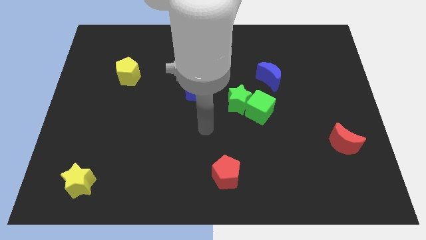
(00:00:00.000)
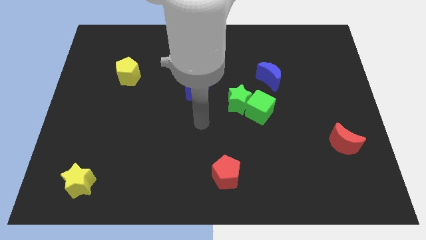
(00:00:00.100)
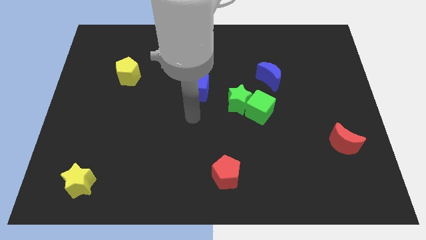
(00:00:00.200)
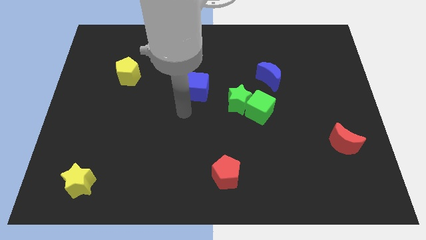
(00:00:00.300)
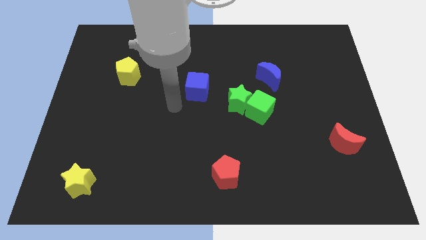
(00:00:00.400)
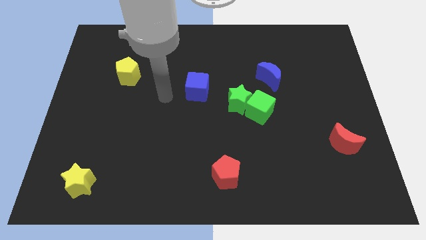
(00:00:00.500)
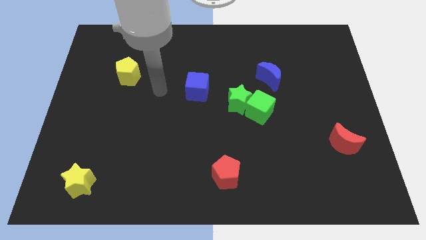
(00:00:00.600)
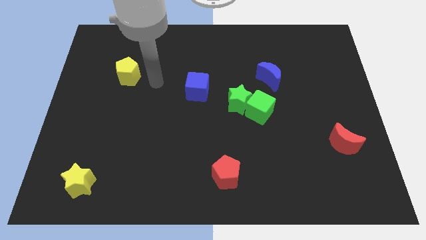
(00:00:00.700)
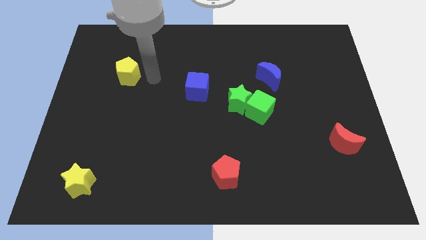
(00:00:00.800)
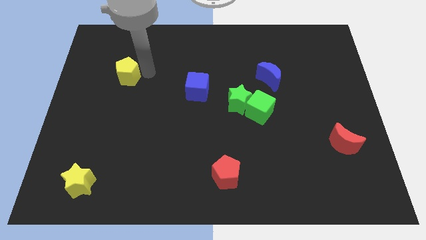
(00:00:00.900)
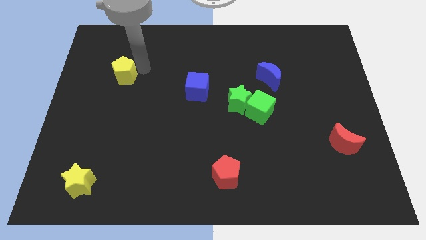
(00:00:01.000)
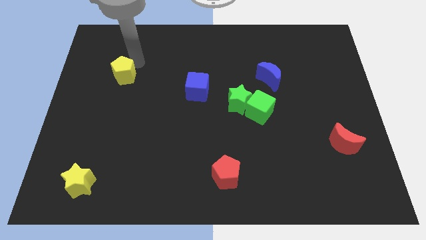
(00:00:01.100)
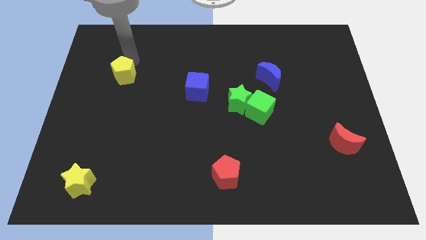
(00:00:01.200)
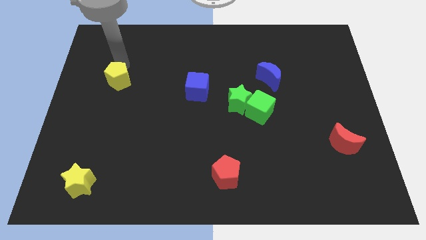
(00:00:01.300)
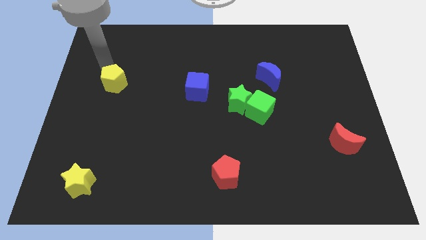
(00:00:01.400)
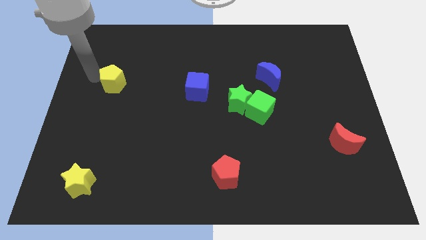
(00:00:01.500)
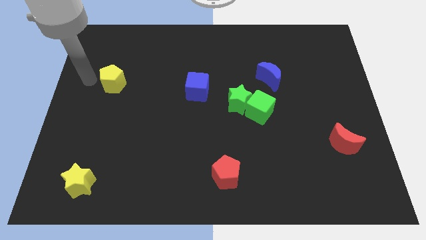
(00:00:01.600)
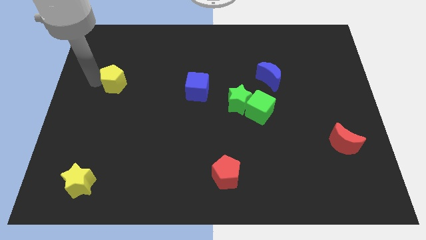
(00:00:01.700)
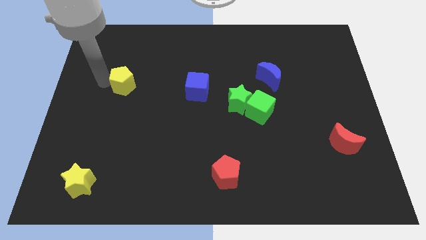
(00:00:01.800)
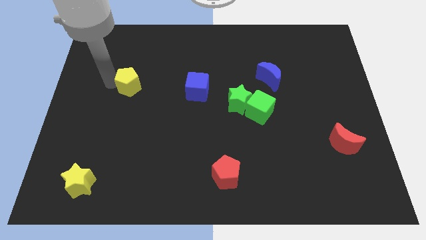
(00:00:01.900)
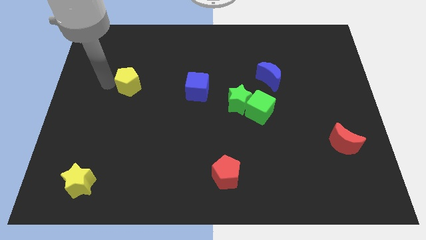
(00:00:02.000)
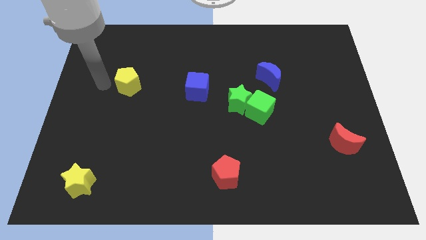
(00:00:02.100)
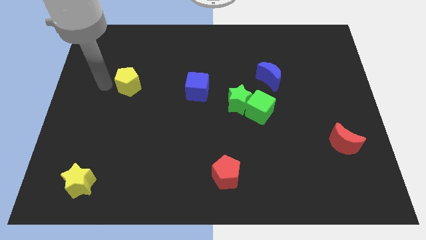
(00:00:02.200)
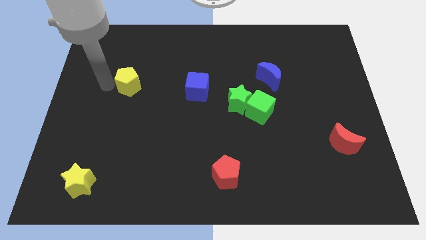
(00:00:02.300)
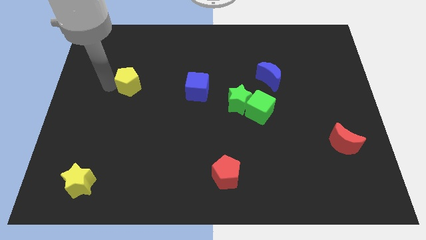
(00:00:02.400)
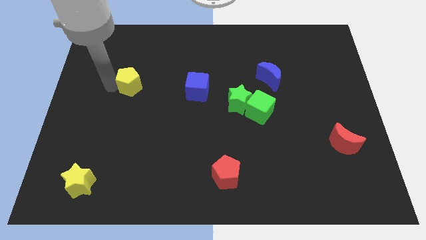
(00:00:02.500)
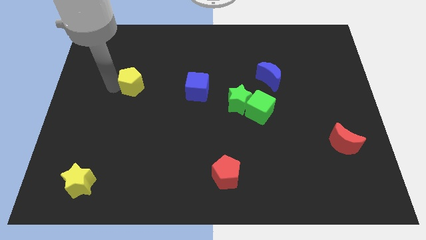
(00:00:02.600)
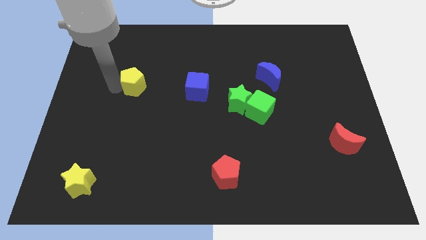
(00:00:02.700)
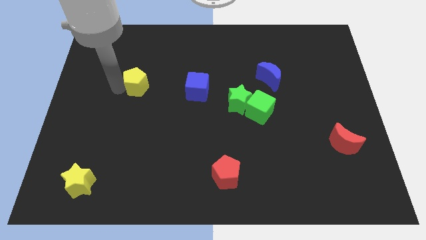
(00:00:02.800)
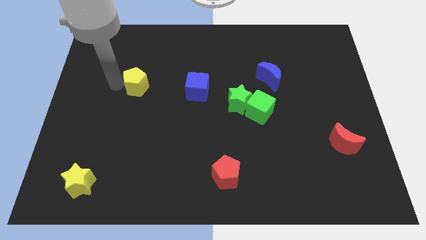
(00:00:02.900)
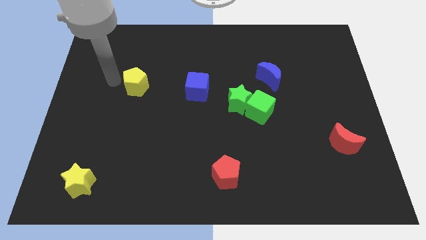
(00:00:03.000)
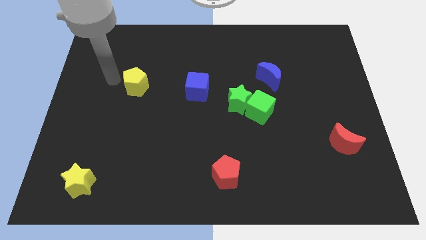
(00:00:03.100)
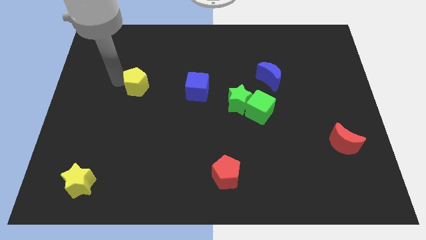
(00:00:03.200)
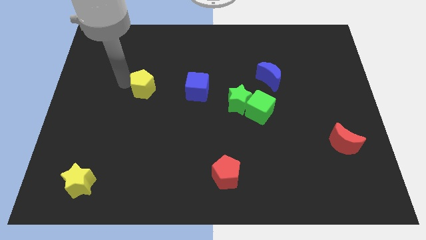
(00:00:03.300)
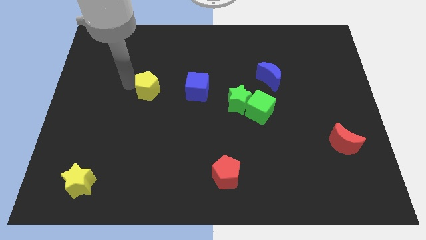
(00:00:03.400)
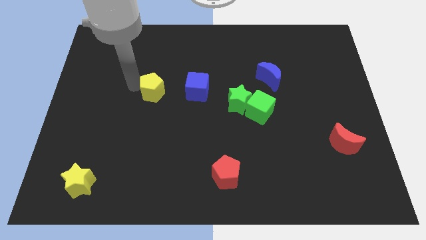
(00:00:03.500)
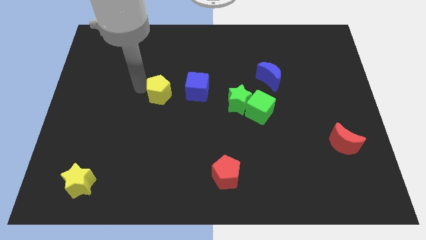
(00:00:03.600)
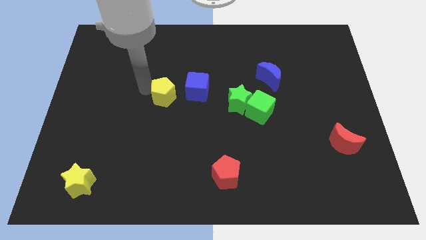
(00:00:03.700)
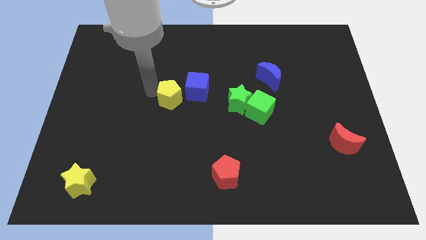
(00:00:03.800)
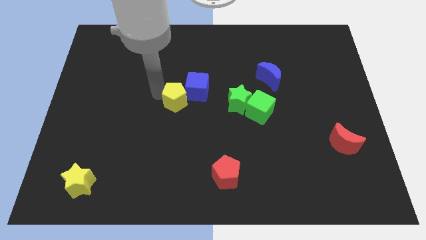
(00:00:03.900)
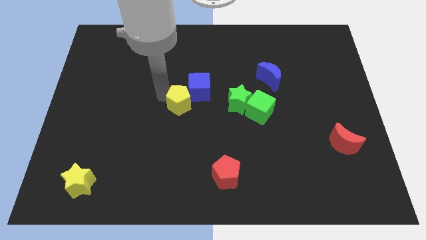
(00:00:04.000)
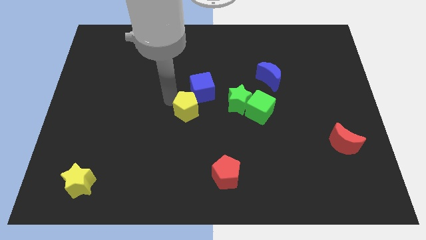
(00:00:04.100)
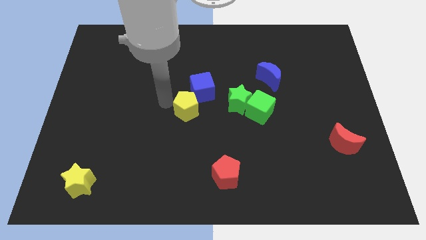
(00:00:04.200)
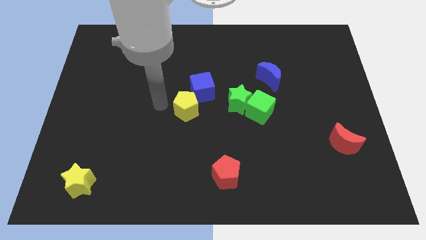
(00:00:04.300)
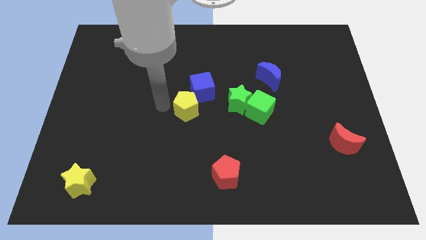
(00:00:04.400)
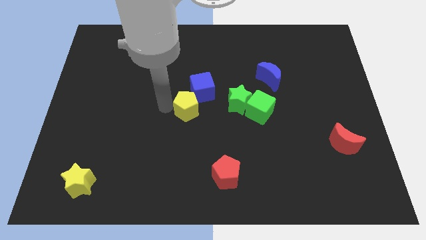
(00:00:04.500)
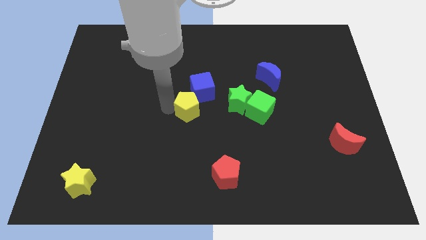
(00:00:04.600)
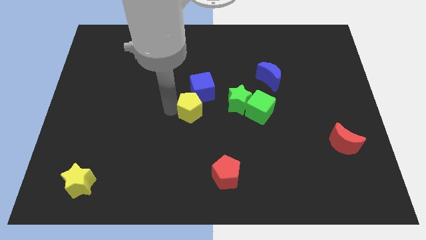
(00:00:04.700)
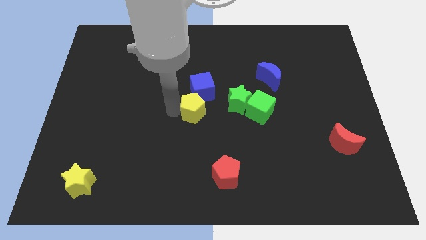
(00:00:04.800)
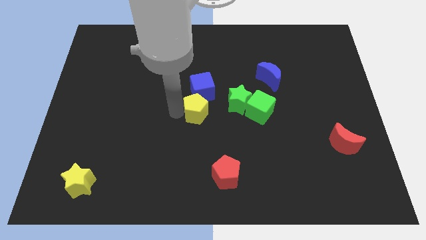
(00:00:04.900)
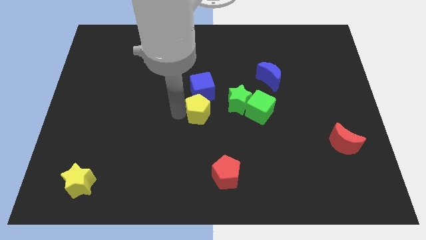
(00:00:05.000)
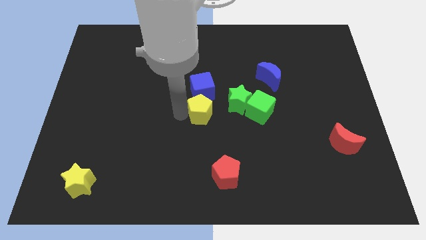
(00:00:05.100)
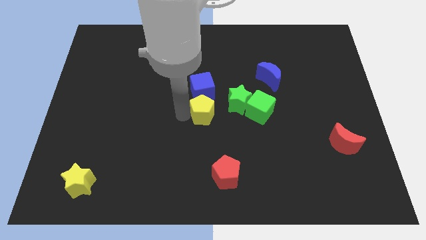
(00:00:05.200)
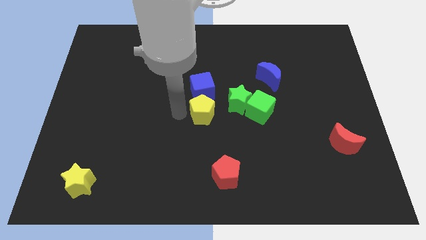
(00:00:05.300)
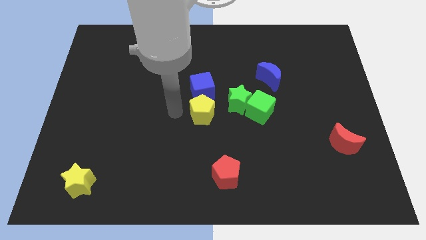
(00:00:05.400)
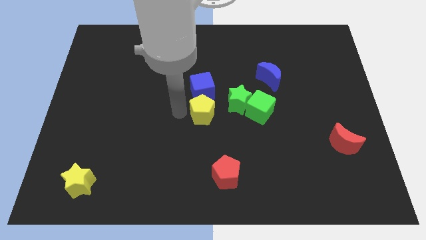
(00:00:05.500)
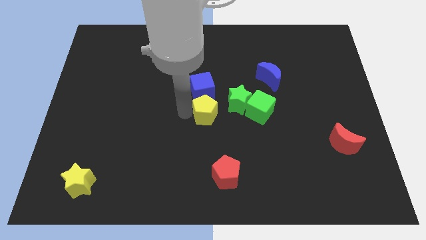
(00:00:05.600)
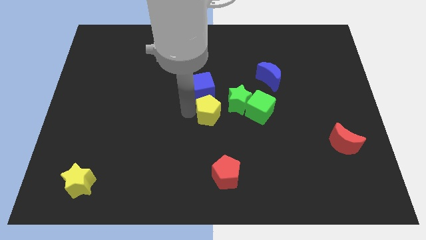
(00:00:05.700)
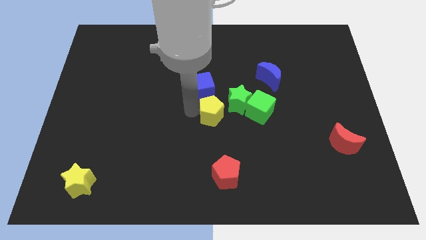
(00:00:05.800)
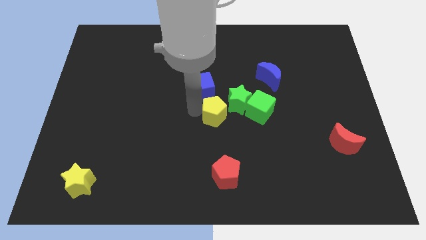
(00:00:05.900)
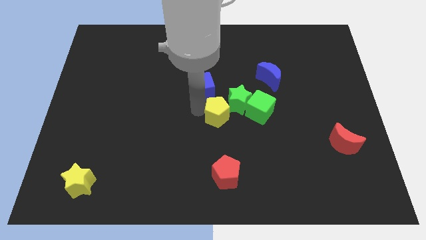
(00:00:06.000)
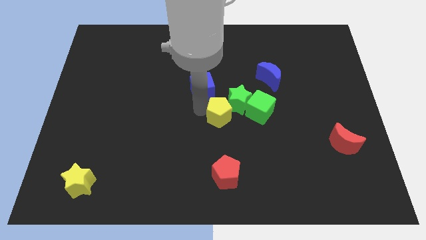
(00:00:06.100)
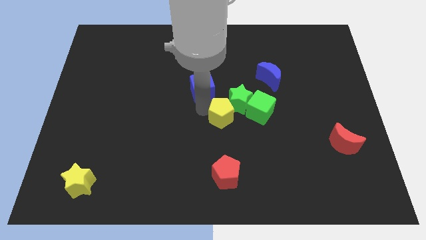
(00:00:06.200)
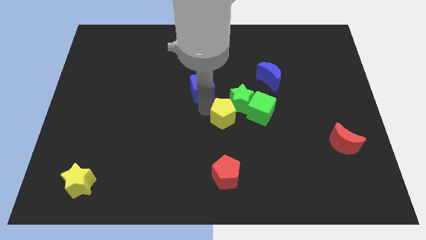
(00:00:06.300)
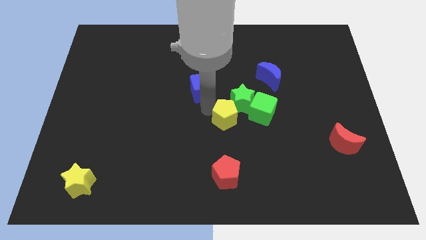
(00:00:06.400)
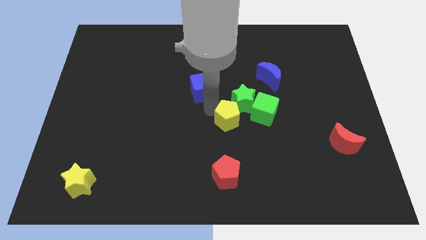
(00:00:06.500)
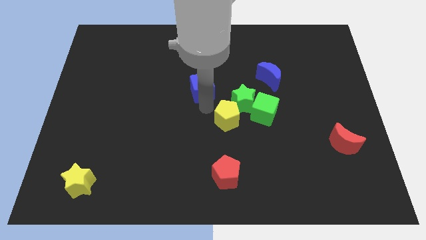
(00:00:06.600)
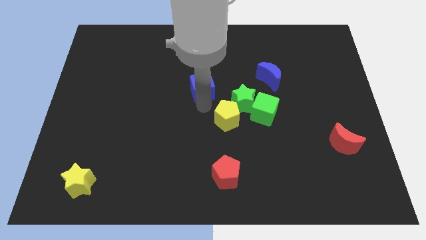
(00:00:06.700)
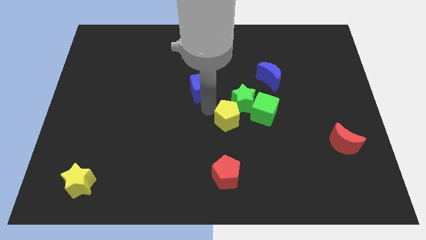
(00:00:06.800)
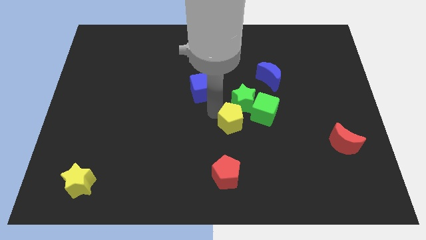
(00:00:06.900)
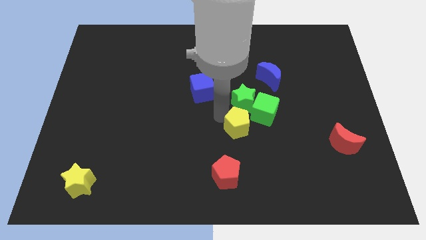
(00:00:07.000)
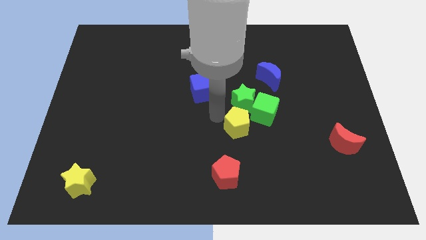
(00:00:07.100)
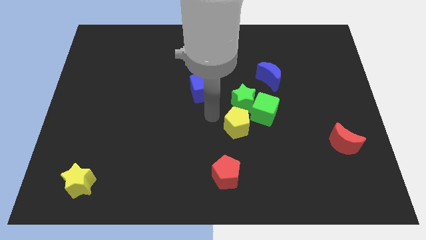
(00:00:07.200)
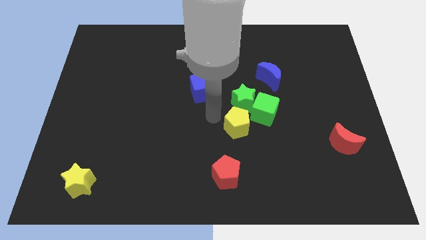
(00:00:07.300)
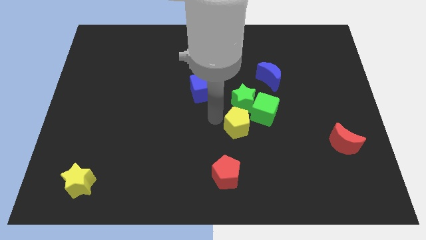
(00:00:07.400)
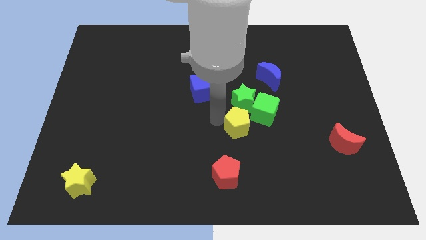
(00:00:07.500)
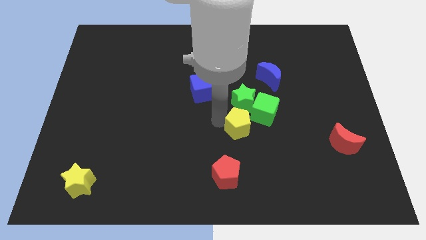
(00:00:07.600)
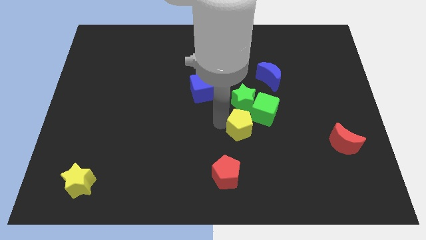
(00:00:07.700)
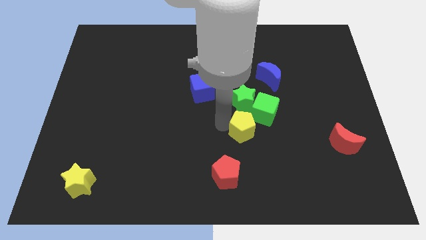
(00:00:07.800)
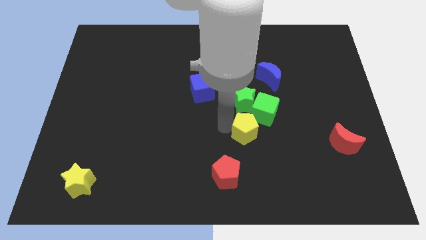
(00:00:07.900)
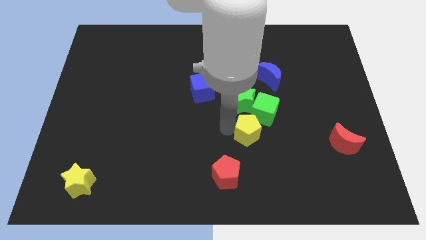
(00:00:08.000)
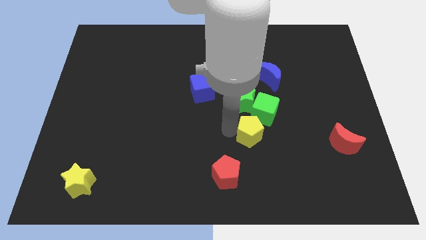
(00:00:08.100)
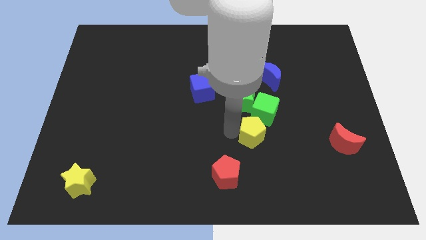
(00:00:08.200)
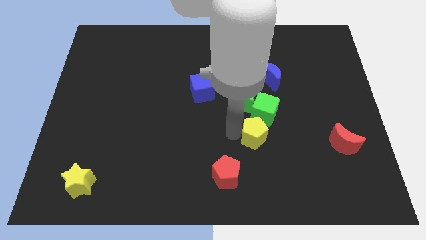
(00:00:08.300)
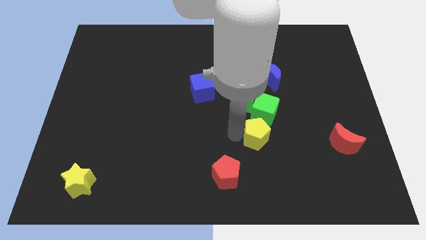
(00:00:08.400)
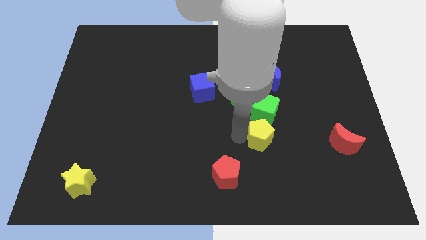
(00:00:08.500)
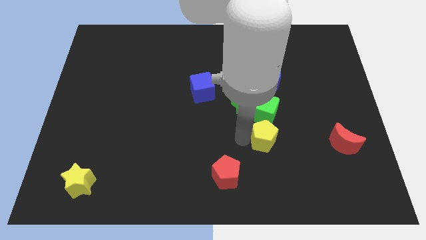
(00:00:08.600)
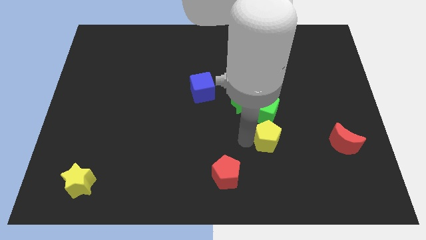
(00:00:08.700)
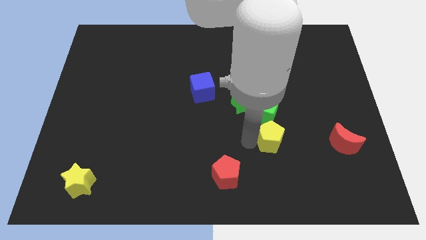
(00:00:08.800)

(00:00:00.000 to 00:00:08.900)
push the yellow pentagon left of the red moon
